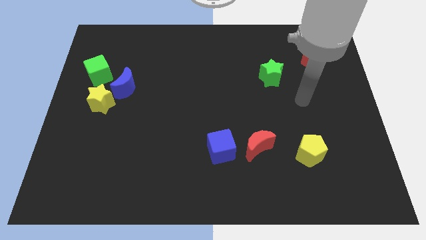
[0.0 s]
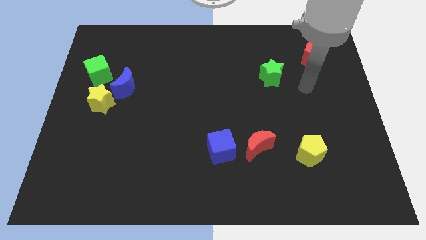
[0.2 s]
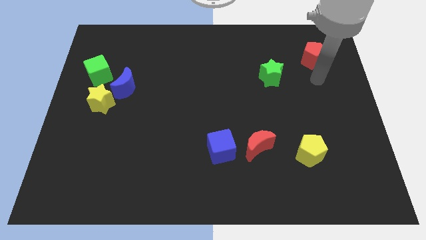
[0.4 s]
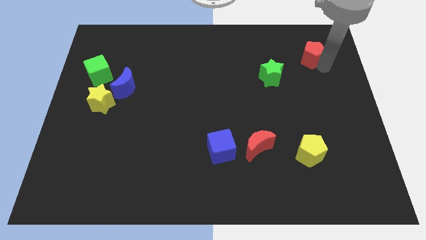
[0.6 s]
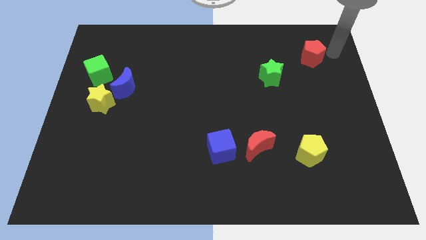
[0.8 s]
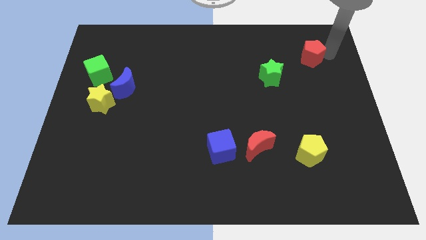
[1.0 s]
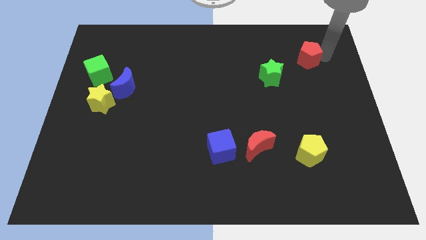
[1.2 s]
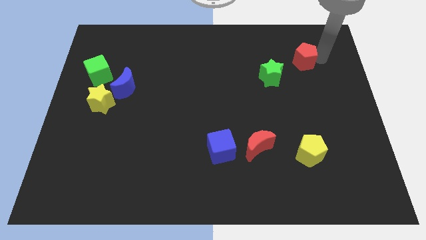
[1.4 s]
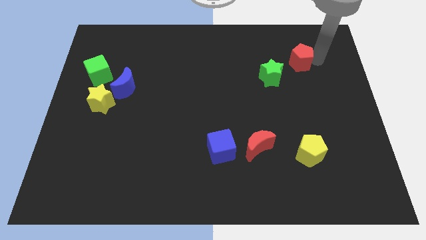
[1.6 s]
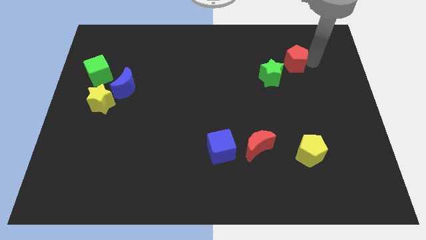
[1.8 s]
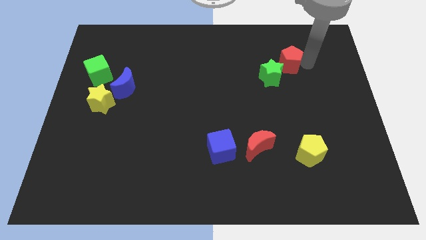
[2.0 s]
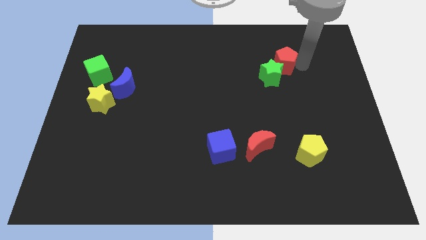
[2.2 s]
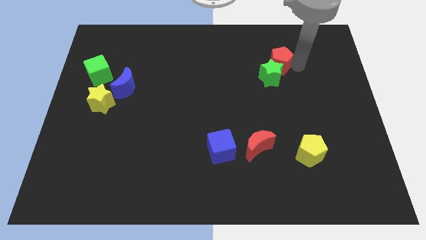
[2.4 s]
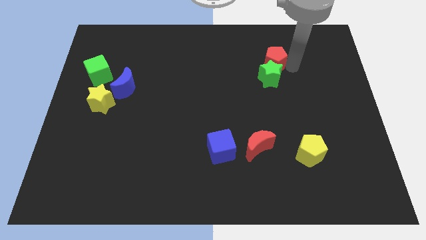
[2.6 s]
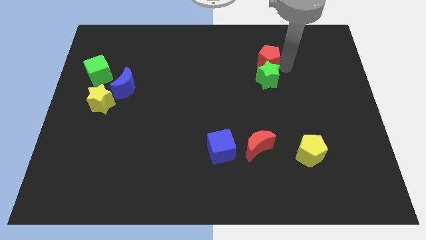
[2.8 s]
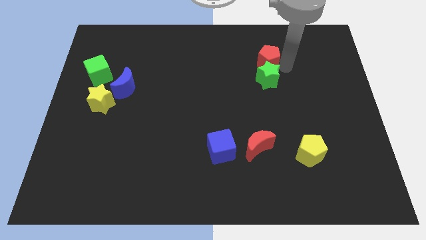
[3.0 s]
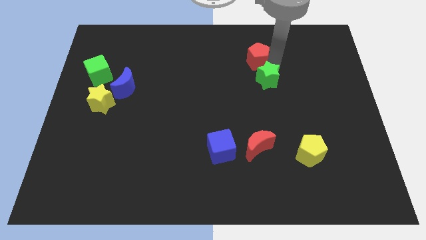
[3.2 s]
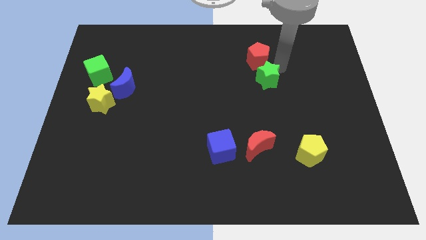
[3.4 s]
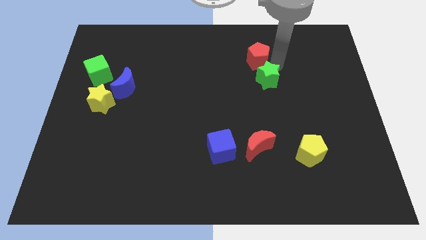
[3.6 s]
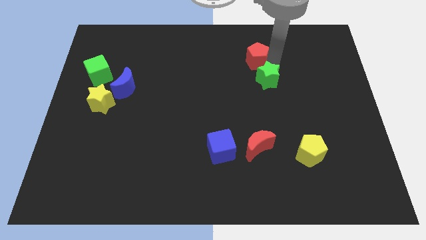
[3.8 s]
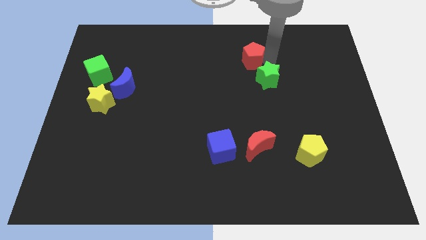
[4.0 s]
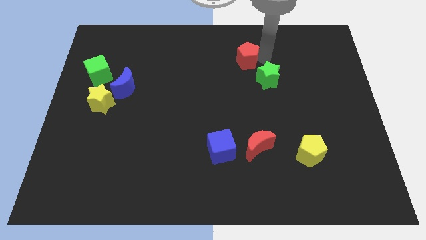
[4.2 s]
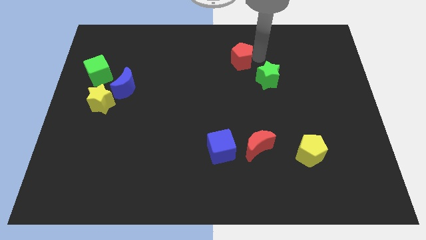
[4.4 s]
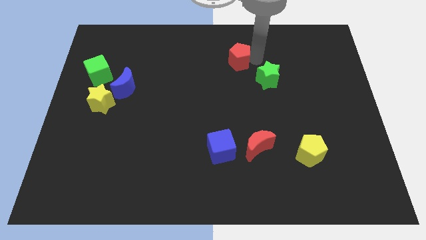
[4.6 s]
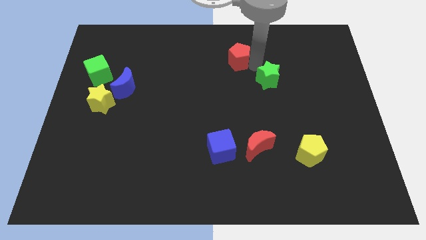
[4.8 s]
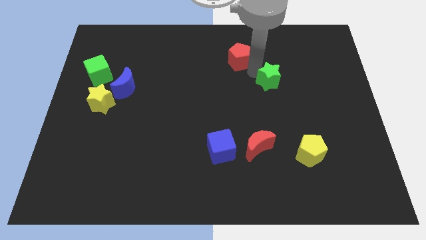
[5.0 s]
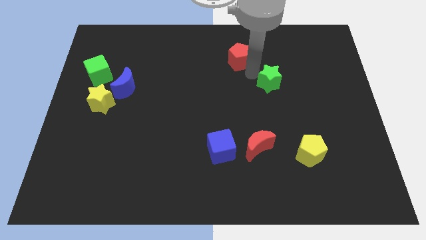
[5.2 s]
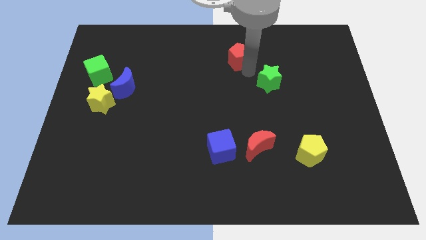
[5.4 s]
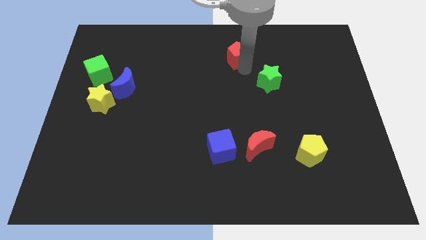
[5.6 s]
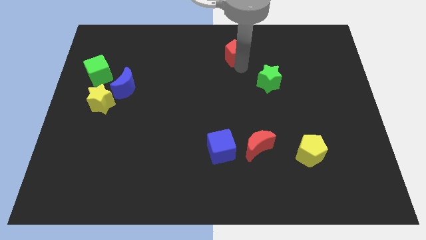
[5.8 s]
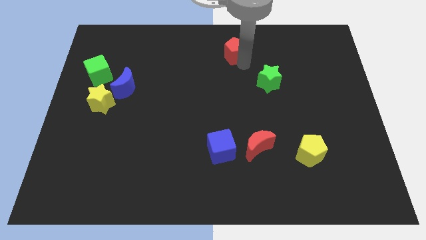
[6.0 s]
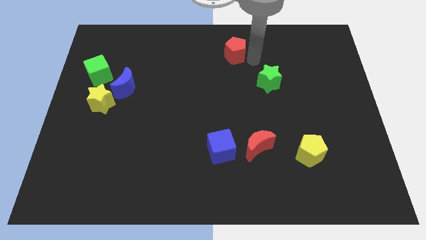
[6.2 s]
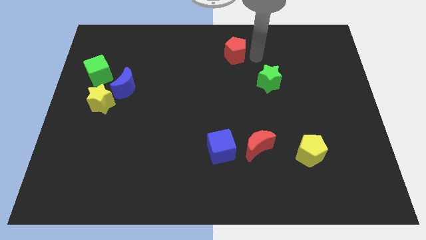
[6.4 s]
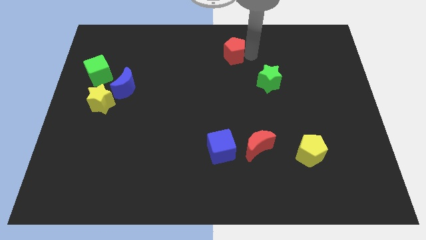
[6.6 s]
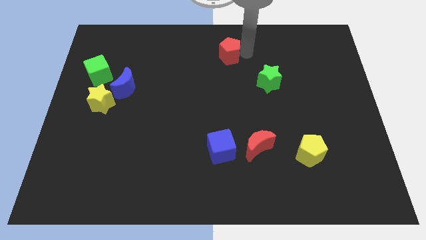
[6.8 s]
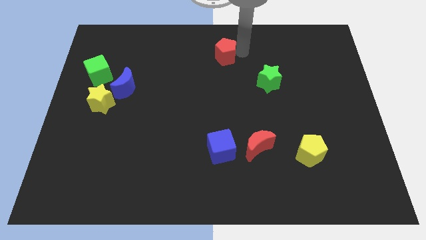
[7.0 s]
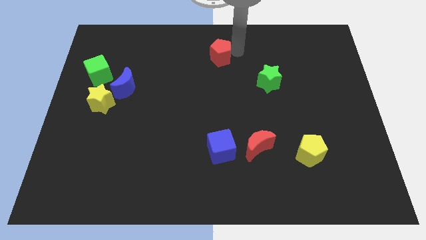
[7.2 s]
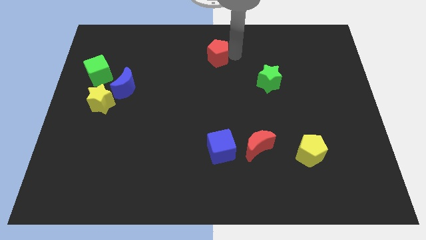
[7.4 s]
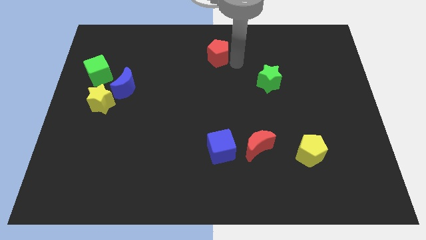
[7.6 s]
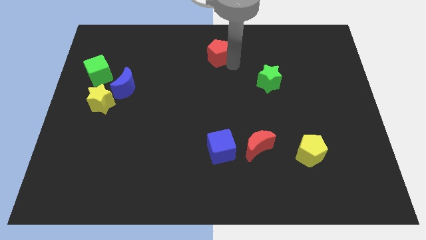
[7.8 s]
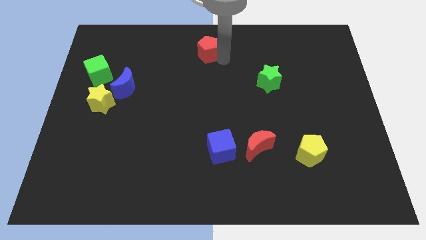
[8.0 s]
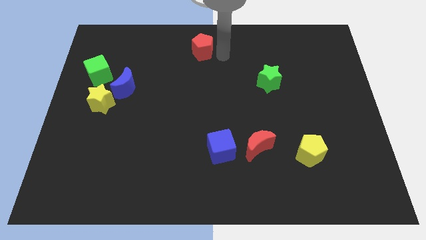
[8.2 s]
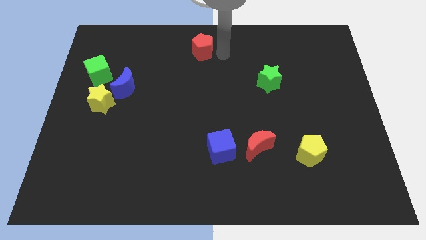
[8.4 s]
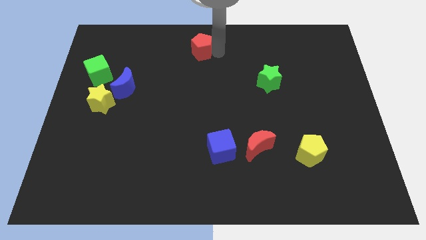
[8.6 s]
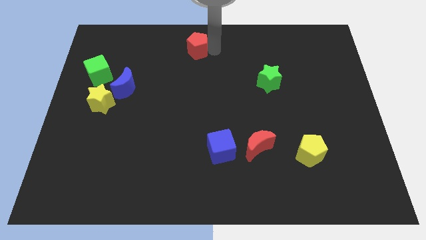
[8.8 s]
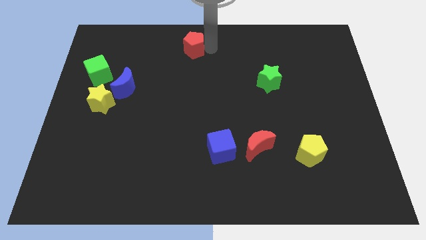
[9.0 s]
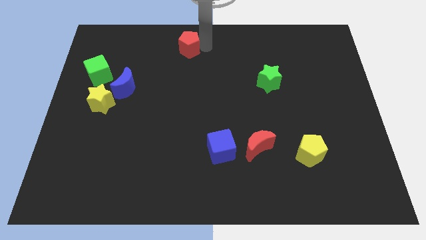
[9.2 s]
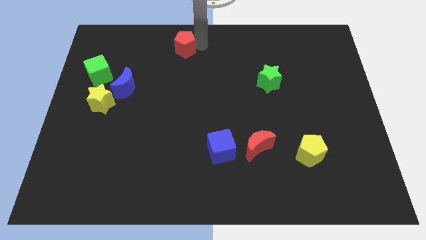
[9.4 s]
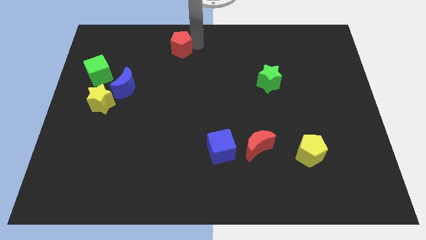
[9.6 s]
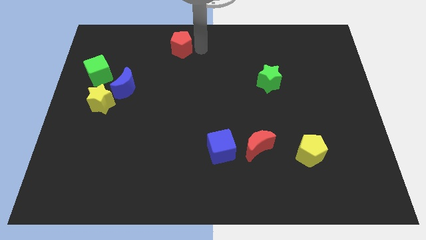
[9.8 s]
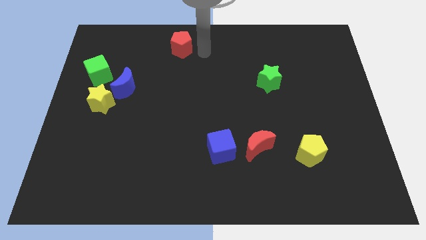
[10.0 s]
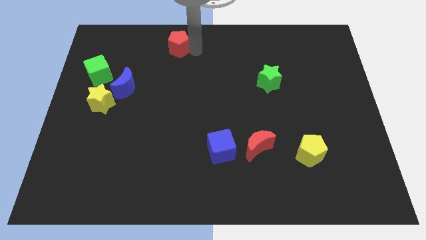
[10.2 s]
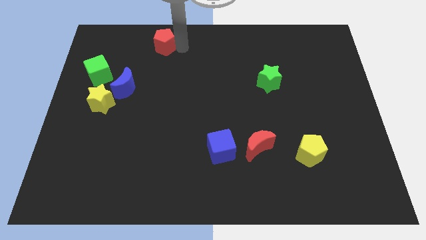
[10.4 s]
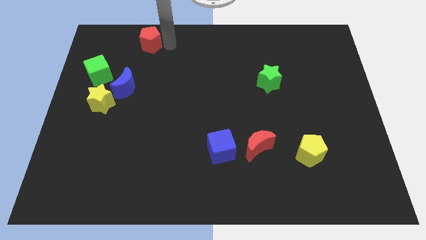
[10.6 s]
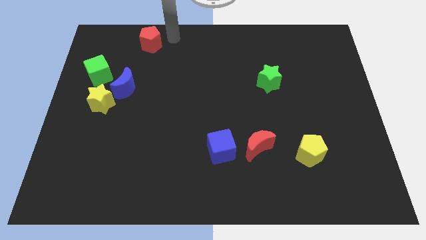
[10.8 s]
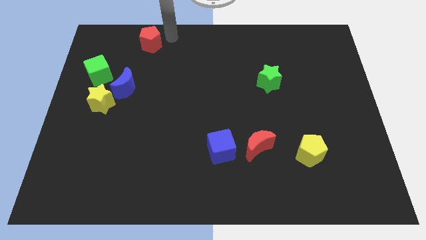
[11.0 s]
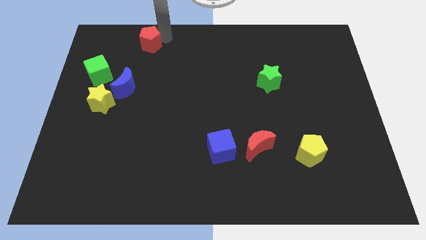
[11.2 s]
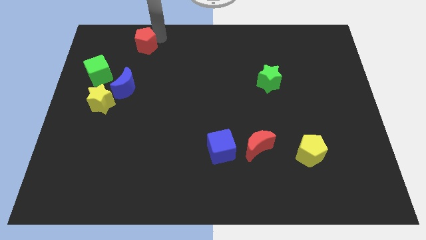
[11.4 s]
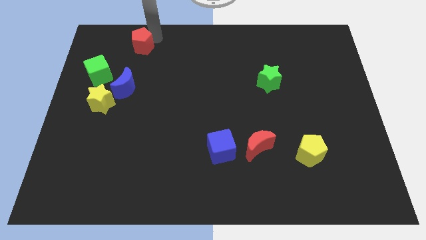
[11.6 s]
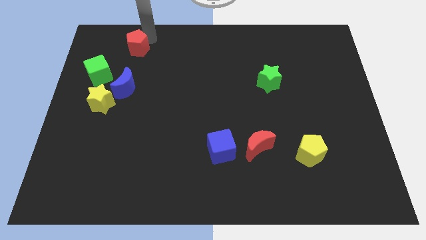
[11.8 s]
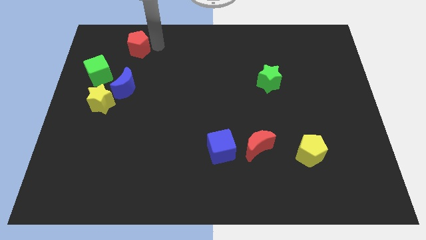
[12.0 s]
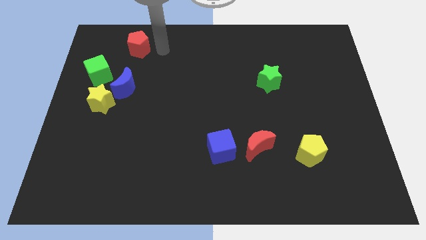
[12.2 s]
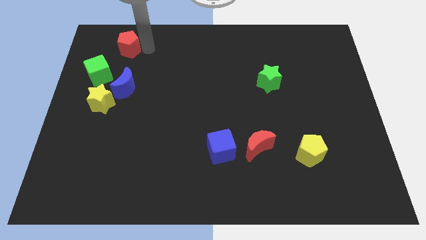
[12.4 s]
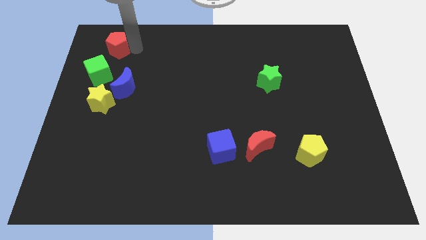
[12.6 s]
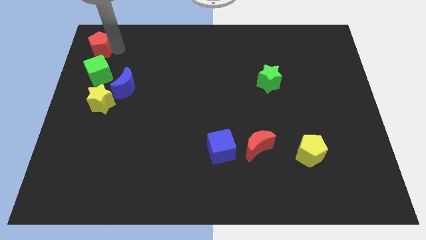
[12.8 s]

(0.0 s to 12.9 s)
push the red pentagon to the upper left corner
